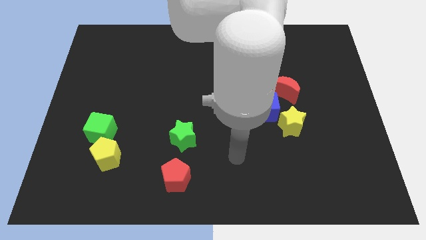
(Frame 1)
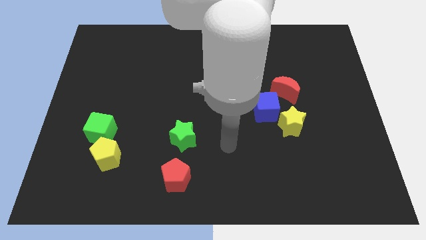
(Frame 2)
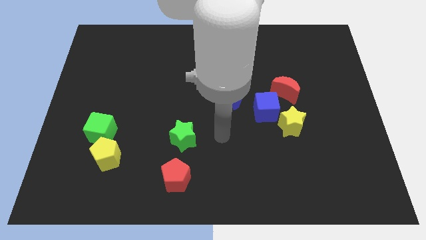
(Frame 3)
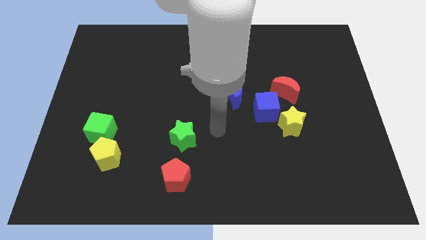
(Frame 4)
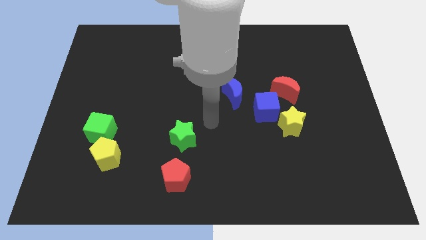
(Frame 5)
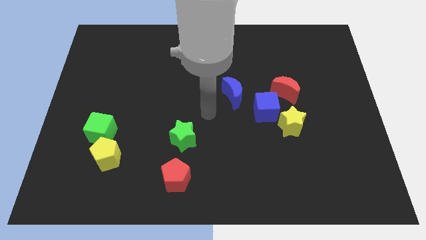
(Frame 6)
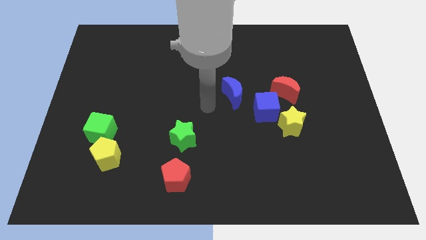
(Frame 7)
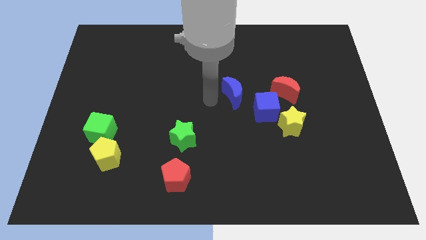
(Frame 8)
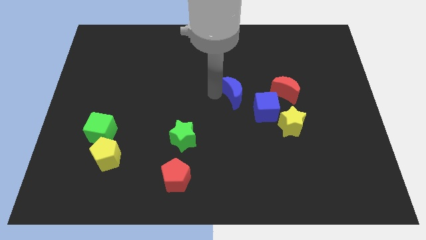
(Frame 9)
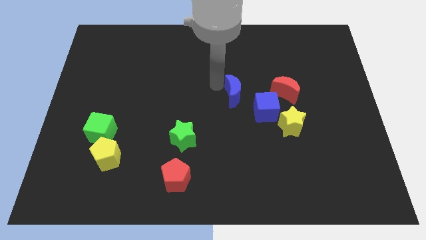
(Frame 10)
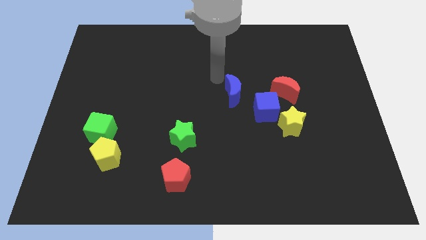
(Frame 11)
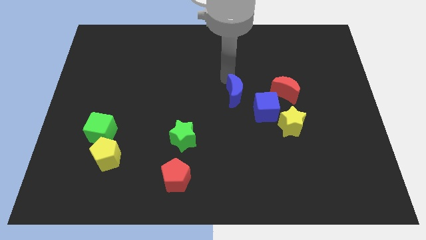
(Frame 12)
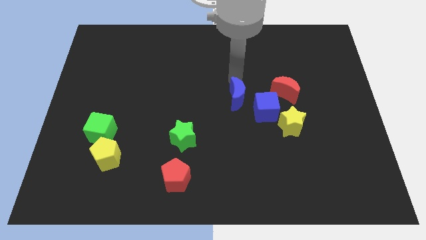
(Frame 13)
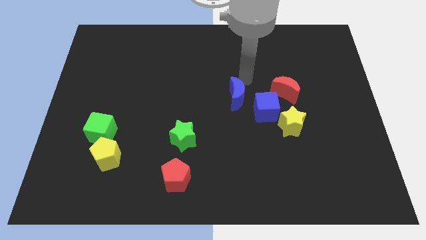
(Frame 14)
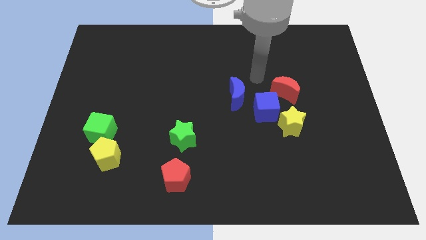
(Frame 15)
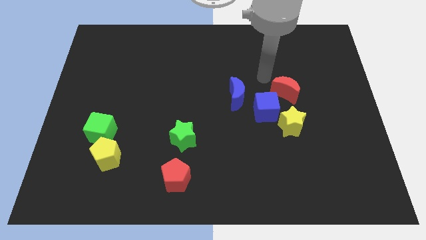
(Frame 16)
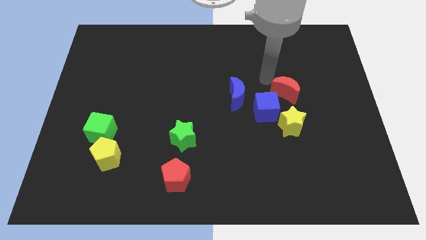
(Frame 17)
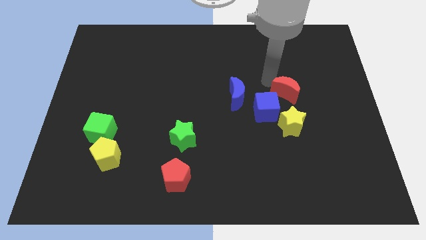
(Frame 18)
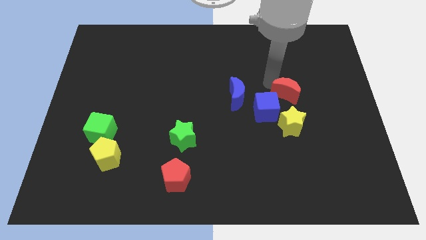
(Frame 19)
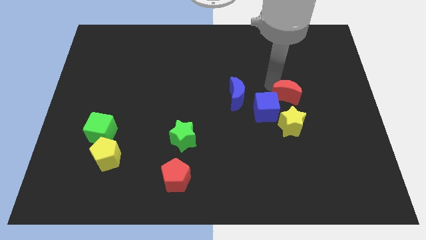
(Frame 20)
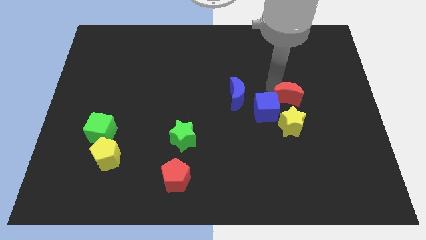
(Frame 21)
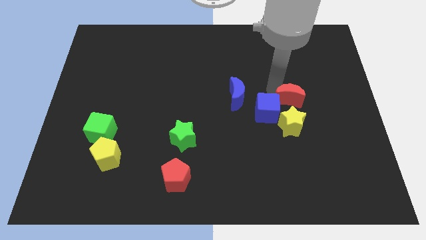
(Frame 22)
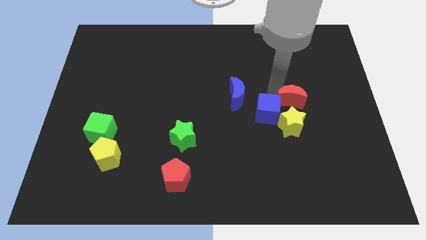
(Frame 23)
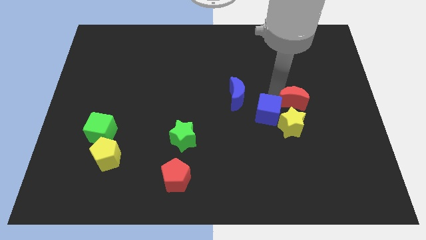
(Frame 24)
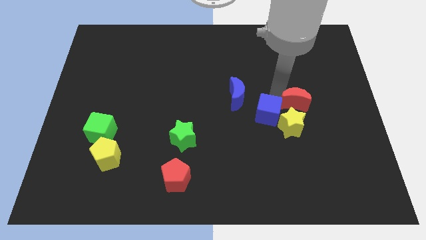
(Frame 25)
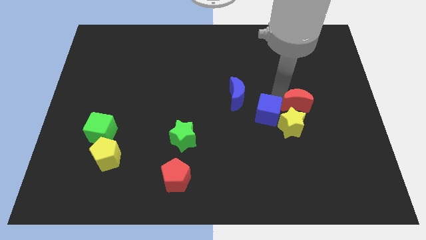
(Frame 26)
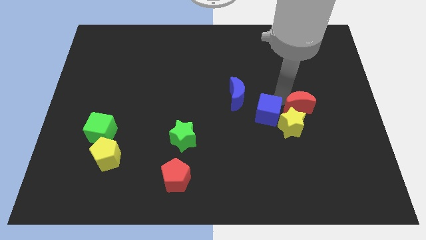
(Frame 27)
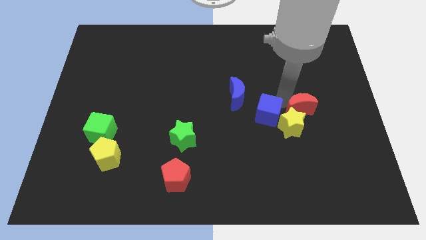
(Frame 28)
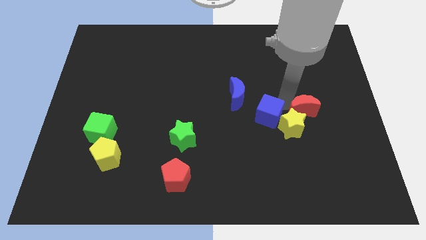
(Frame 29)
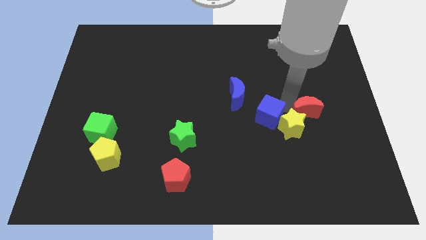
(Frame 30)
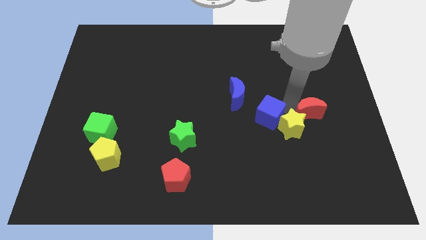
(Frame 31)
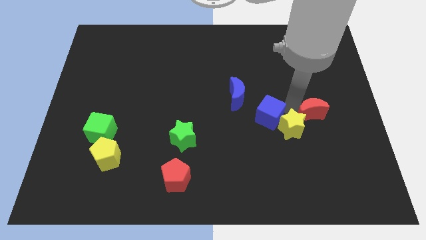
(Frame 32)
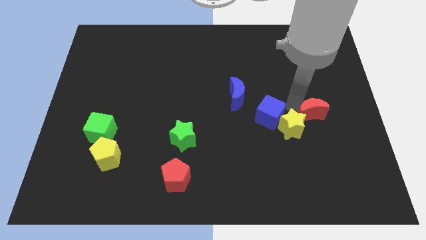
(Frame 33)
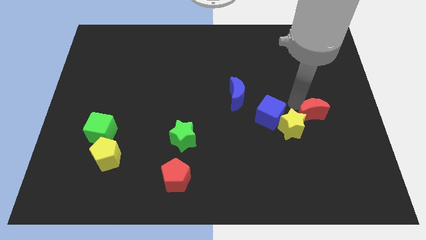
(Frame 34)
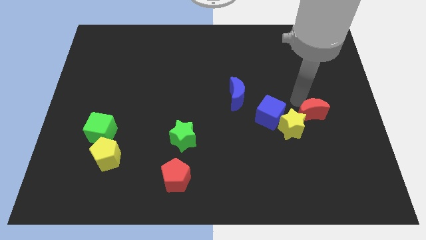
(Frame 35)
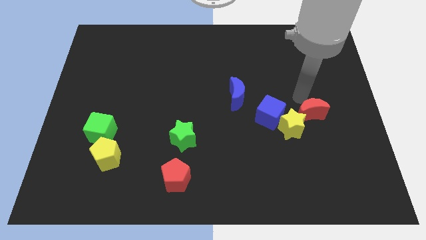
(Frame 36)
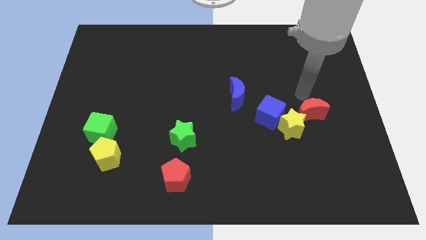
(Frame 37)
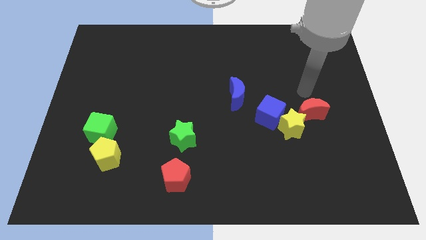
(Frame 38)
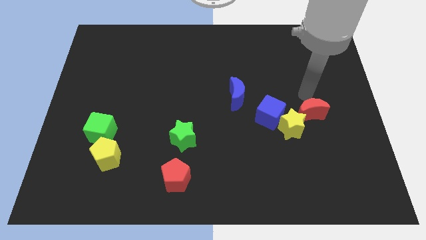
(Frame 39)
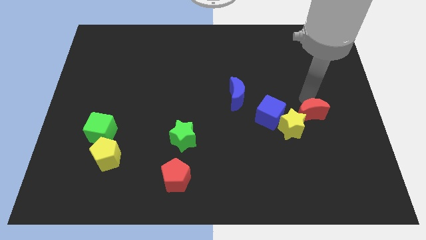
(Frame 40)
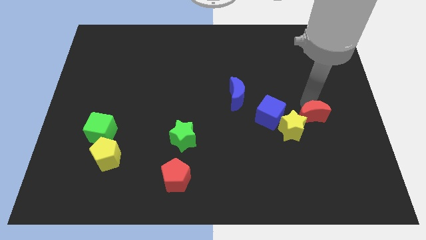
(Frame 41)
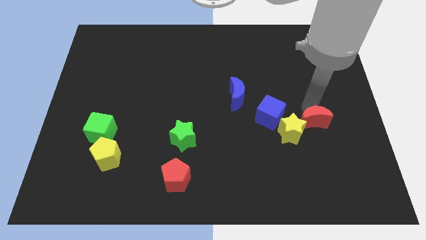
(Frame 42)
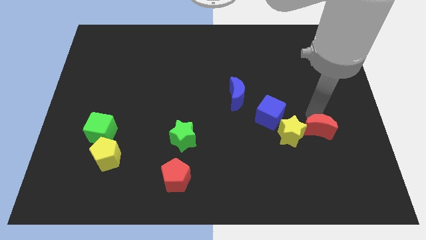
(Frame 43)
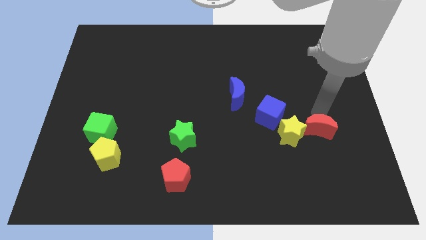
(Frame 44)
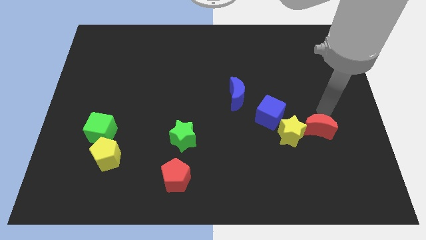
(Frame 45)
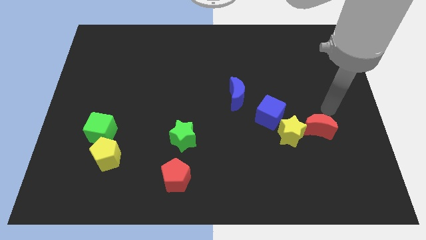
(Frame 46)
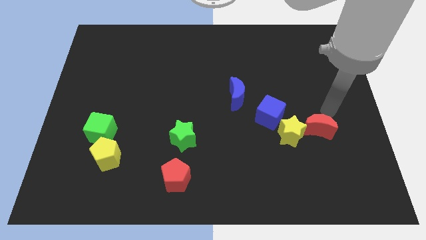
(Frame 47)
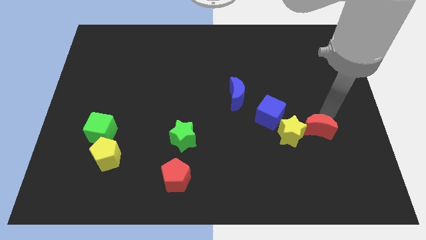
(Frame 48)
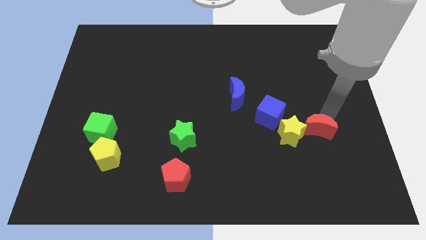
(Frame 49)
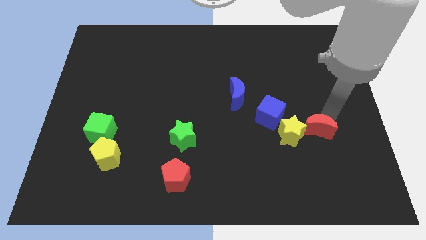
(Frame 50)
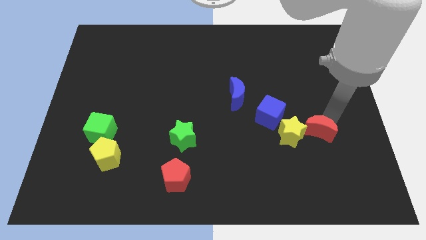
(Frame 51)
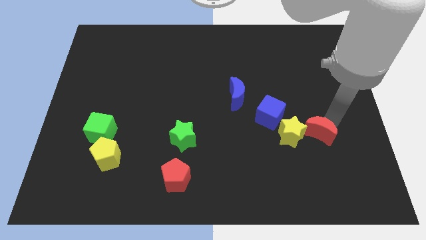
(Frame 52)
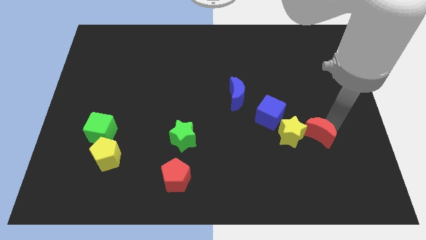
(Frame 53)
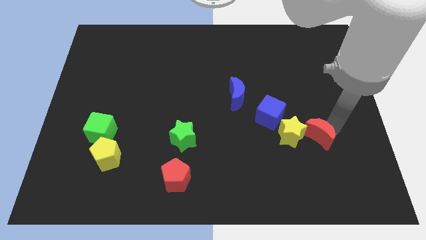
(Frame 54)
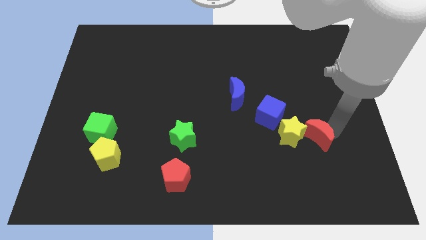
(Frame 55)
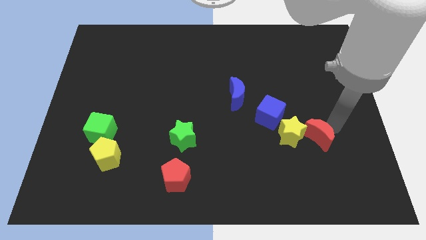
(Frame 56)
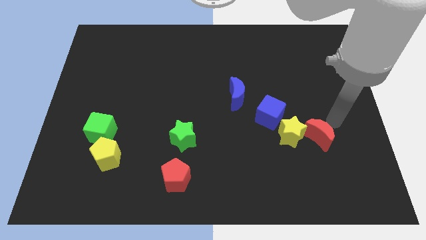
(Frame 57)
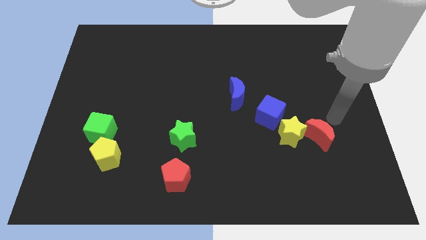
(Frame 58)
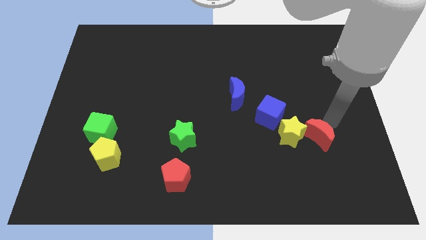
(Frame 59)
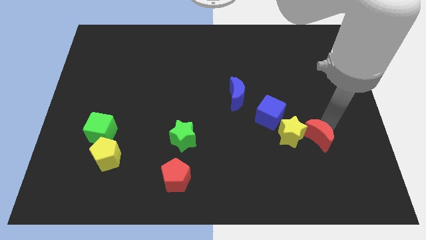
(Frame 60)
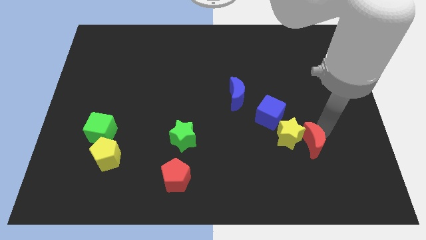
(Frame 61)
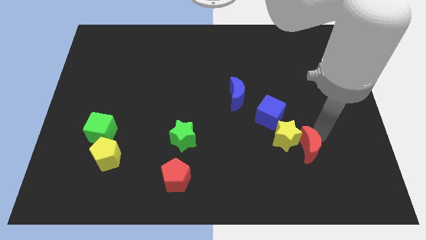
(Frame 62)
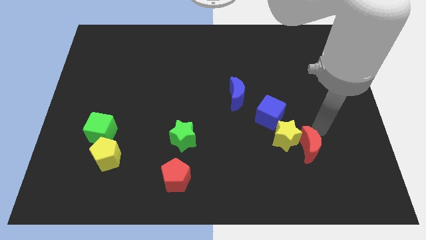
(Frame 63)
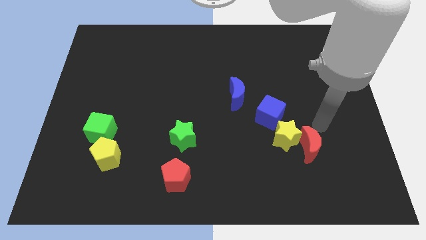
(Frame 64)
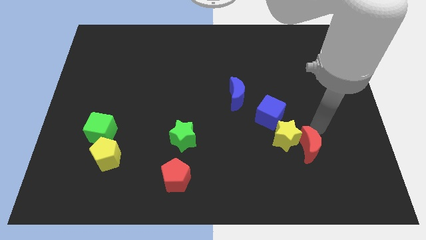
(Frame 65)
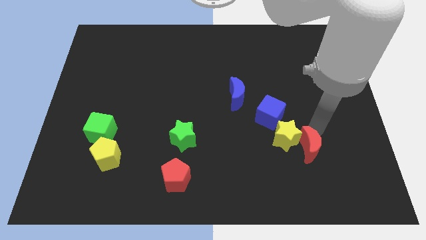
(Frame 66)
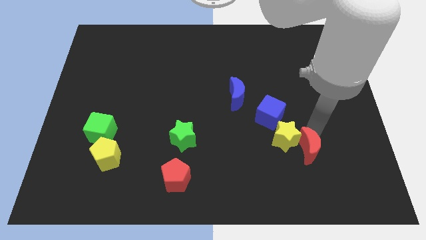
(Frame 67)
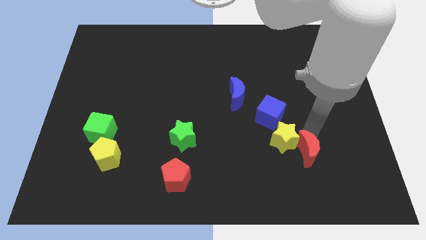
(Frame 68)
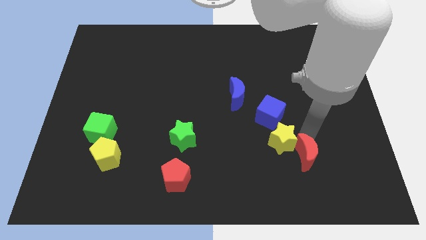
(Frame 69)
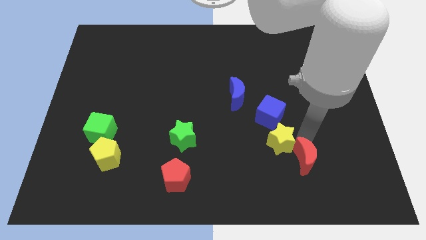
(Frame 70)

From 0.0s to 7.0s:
move the red moon to the bottom of the yellow star

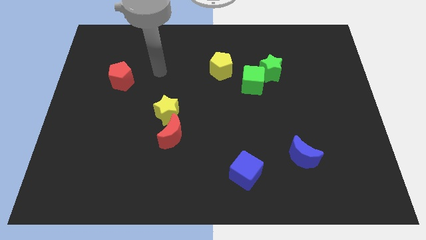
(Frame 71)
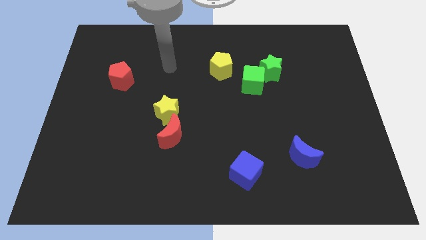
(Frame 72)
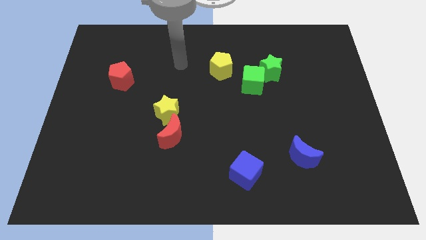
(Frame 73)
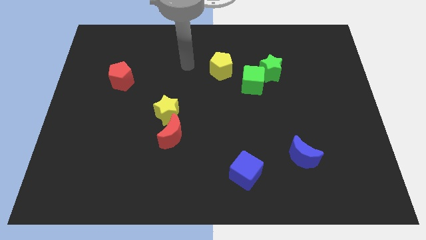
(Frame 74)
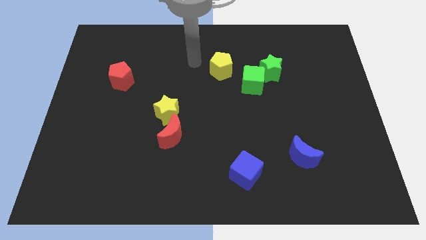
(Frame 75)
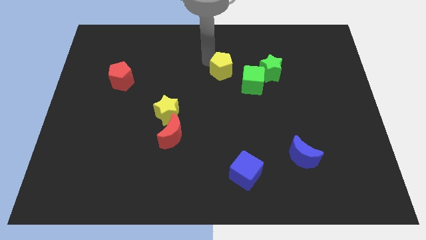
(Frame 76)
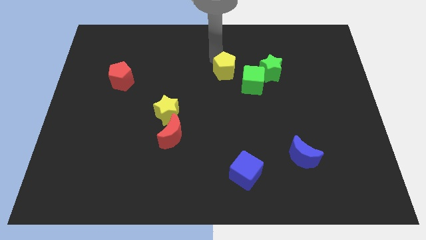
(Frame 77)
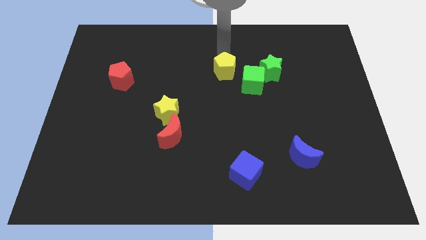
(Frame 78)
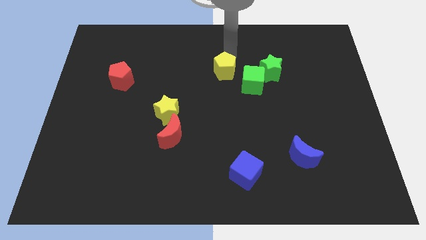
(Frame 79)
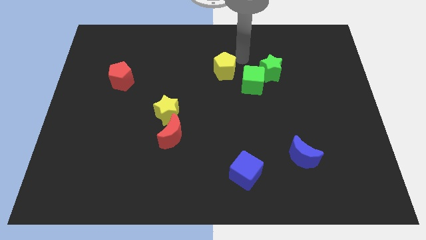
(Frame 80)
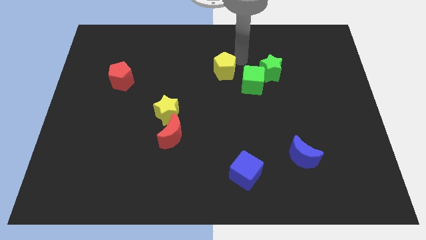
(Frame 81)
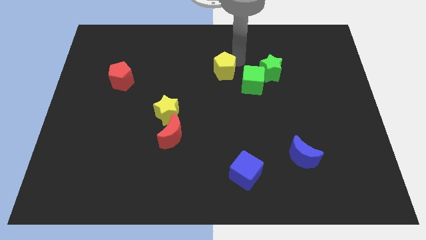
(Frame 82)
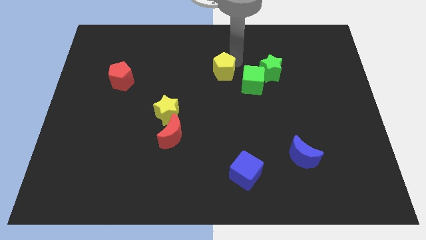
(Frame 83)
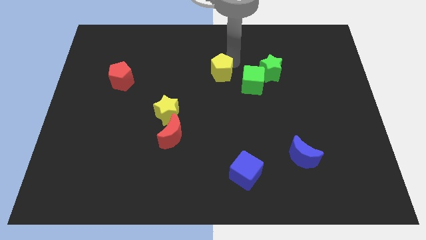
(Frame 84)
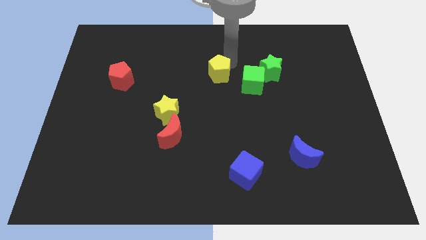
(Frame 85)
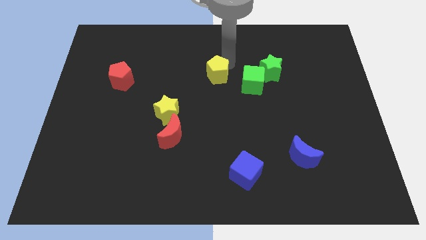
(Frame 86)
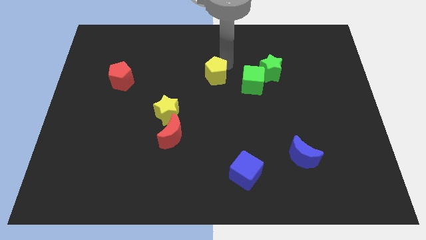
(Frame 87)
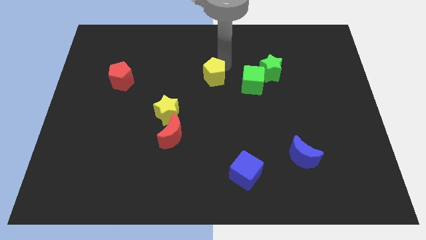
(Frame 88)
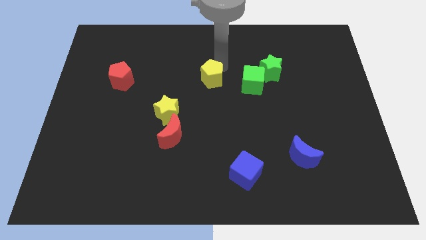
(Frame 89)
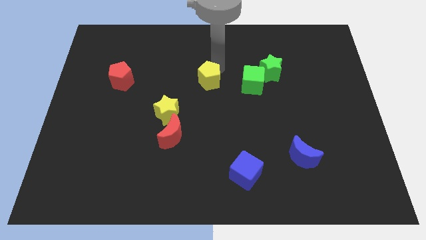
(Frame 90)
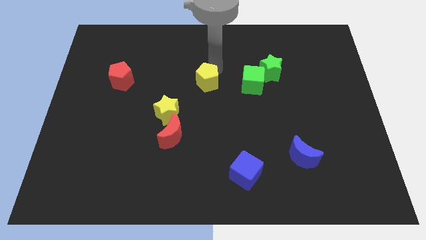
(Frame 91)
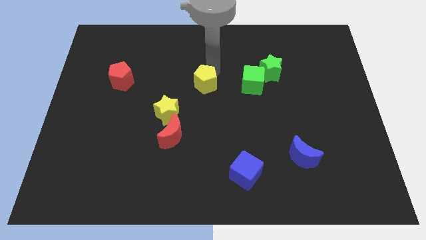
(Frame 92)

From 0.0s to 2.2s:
move the yellow pentagon to the top right side of the yellow star
